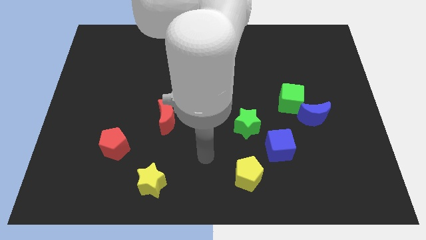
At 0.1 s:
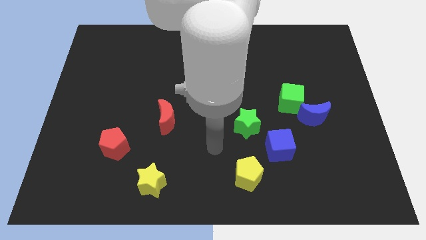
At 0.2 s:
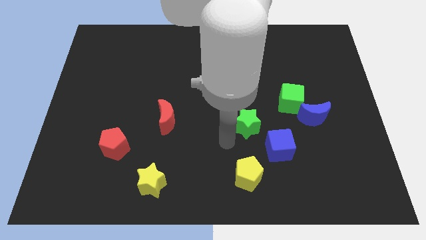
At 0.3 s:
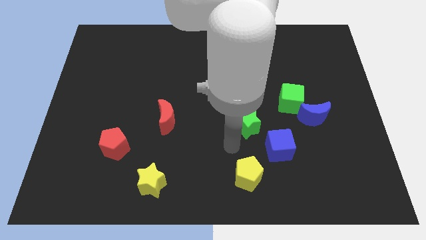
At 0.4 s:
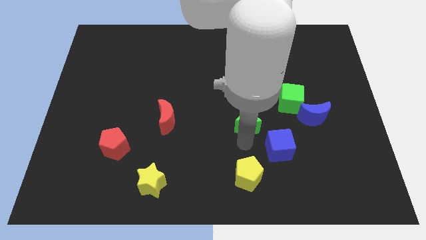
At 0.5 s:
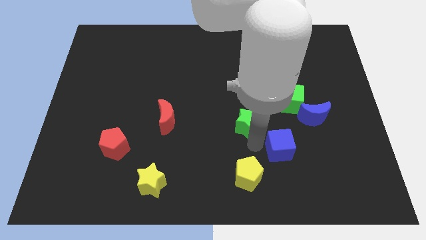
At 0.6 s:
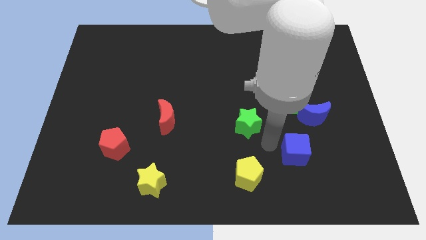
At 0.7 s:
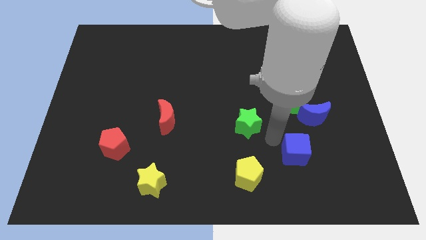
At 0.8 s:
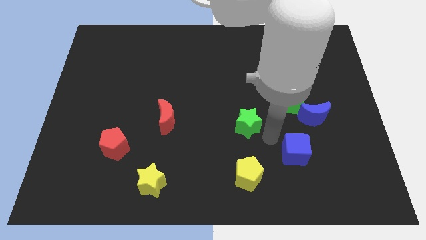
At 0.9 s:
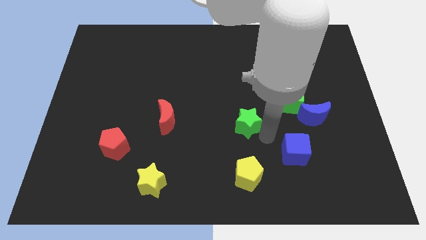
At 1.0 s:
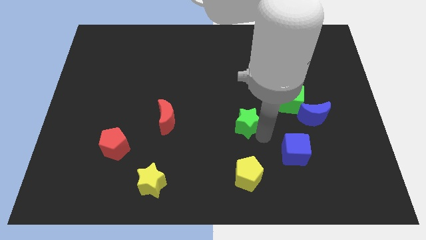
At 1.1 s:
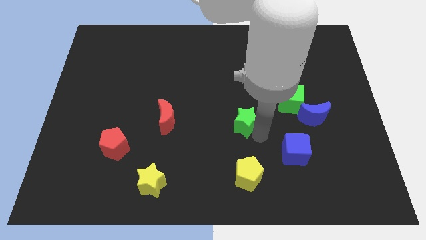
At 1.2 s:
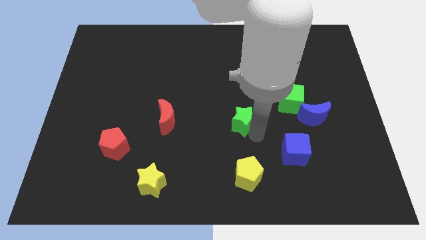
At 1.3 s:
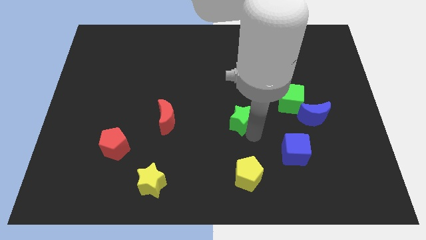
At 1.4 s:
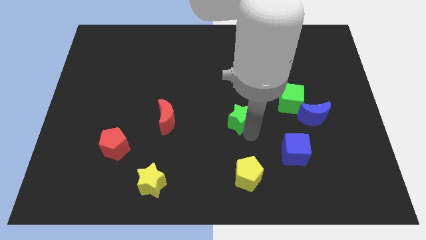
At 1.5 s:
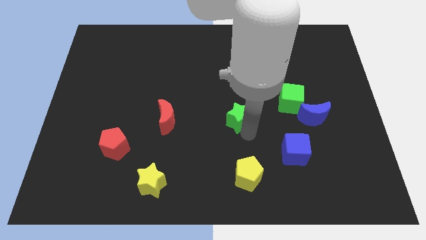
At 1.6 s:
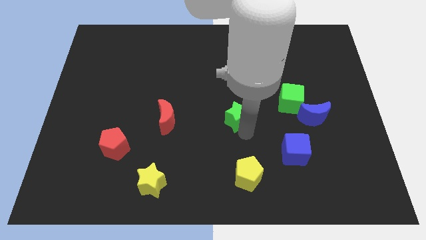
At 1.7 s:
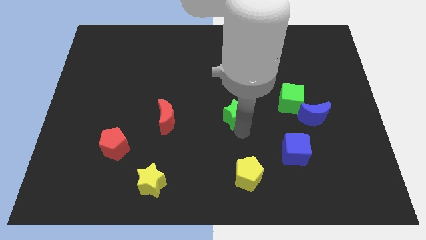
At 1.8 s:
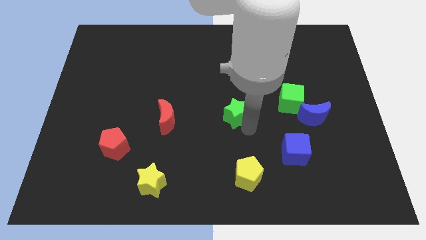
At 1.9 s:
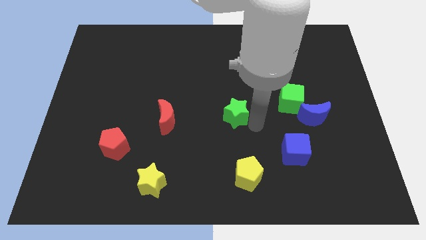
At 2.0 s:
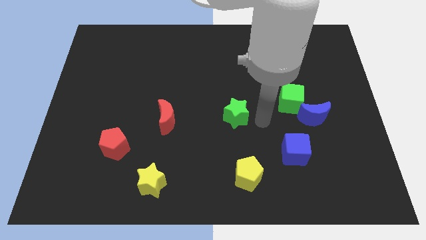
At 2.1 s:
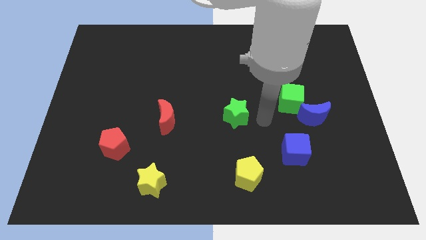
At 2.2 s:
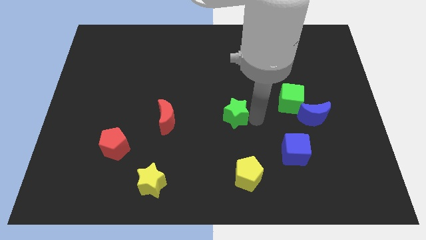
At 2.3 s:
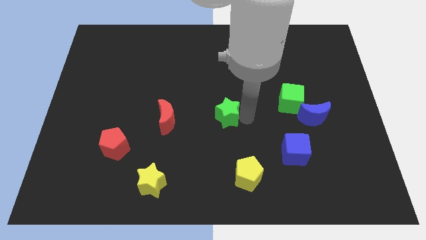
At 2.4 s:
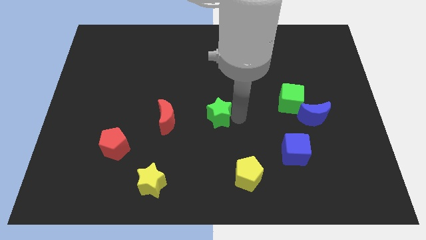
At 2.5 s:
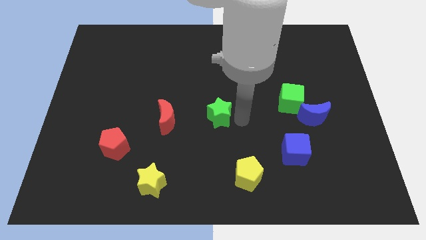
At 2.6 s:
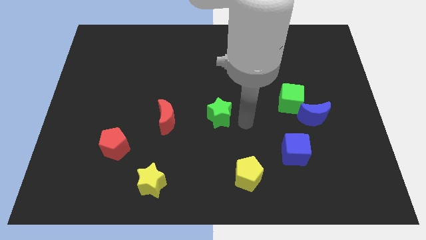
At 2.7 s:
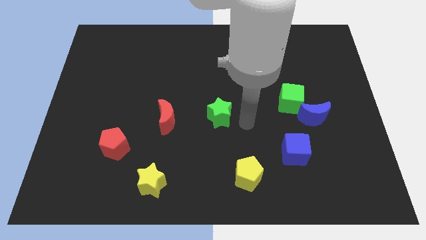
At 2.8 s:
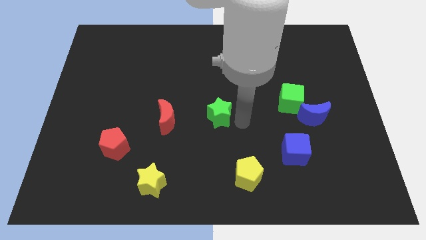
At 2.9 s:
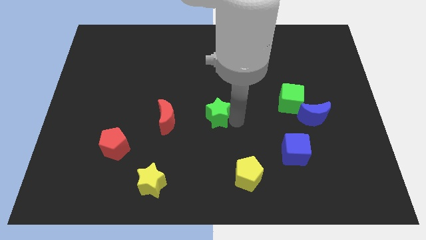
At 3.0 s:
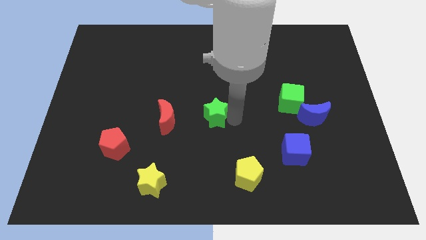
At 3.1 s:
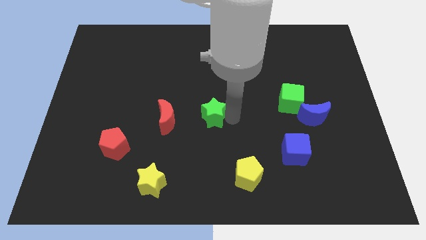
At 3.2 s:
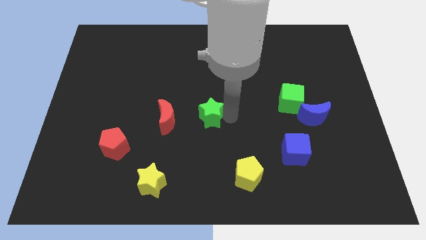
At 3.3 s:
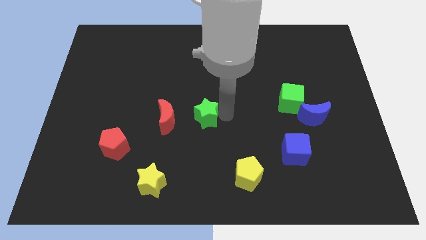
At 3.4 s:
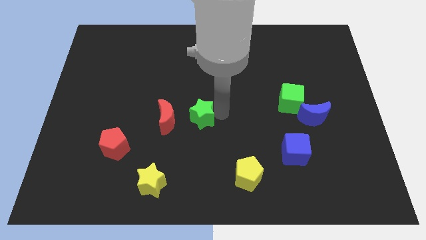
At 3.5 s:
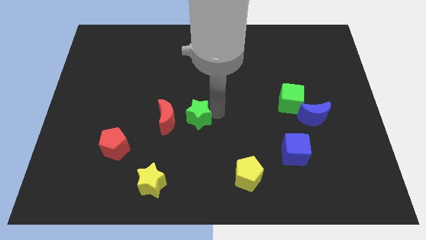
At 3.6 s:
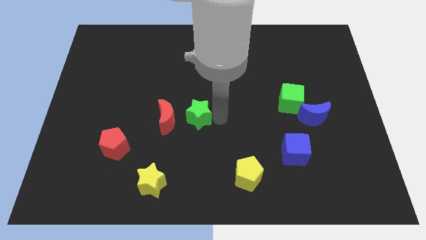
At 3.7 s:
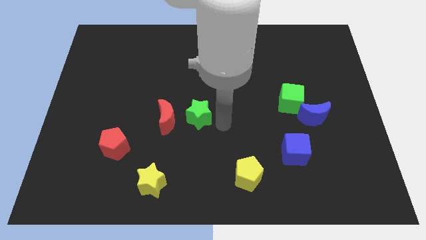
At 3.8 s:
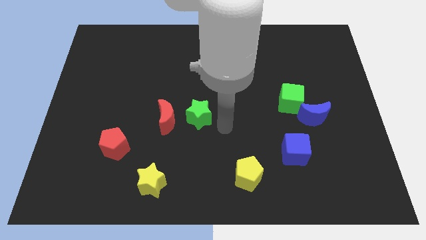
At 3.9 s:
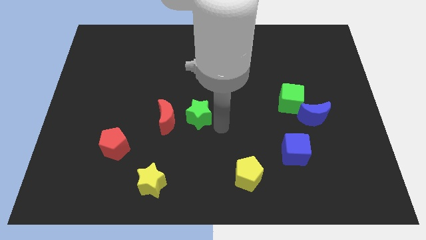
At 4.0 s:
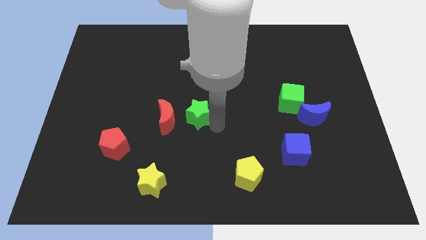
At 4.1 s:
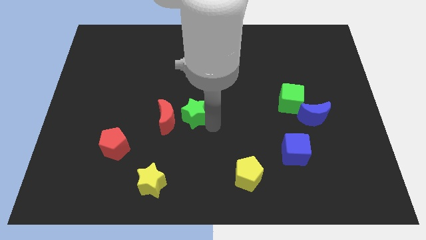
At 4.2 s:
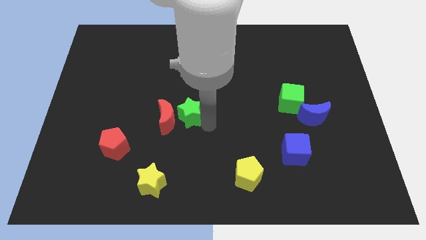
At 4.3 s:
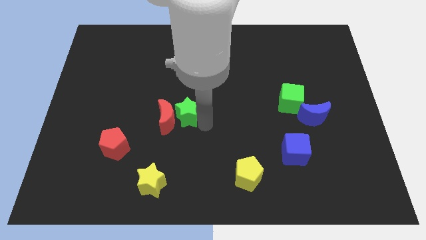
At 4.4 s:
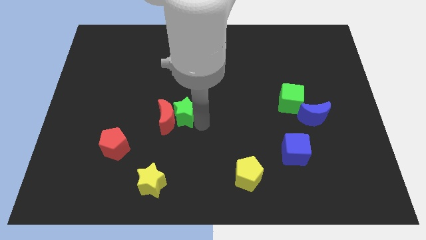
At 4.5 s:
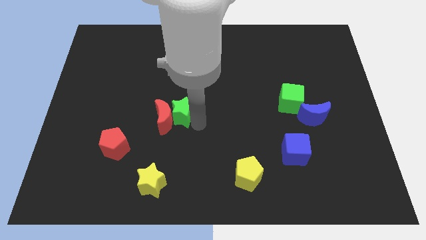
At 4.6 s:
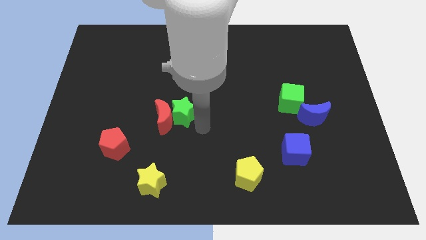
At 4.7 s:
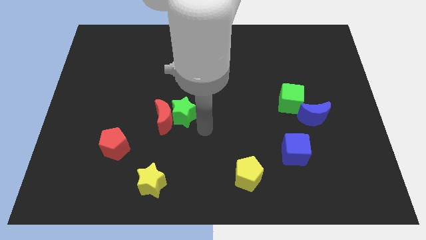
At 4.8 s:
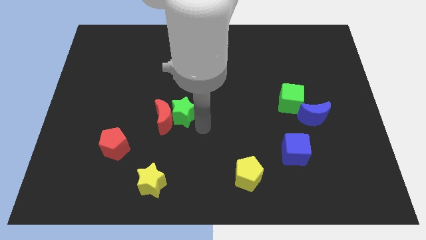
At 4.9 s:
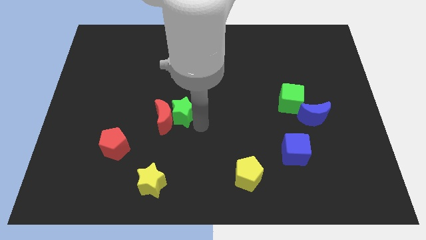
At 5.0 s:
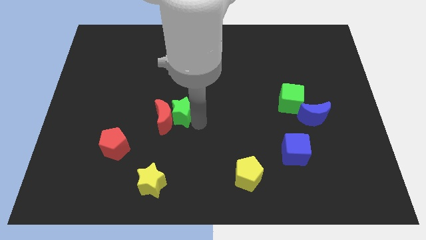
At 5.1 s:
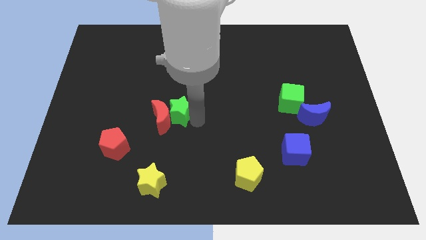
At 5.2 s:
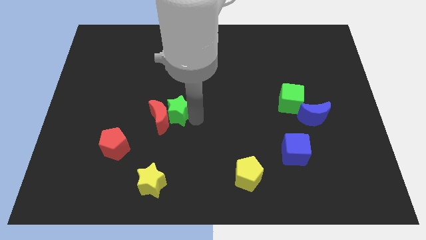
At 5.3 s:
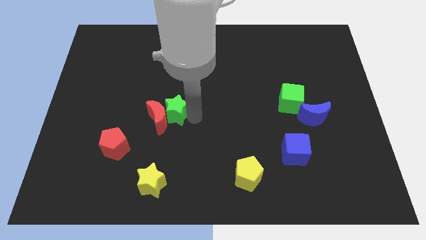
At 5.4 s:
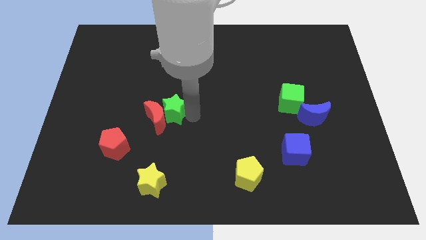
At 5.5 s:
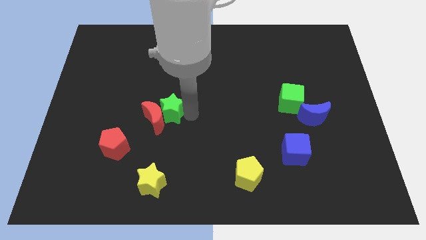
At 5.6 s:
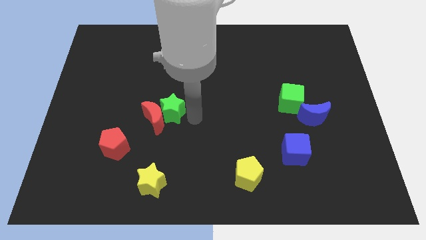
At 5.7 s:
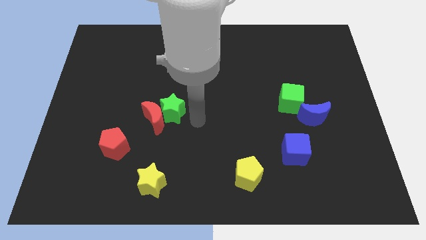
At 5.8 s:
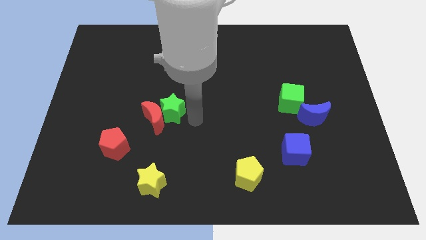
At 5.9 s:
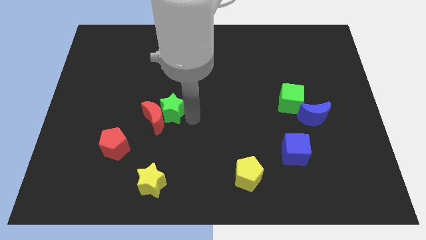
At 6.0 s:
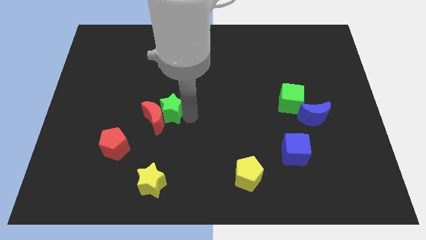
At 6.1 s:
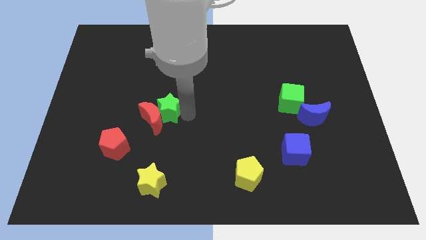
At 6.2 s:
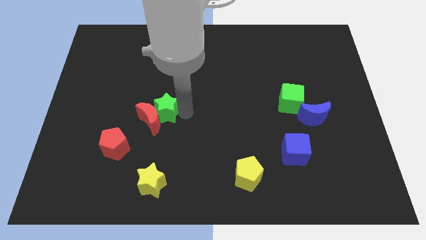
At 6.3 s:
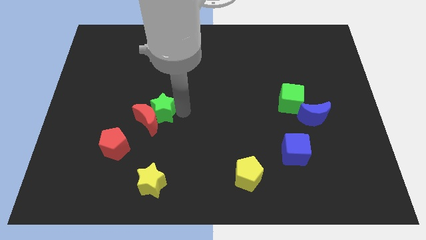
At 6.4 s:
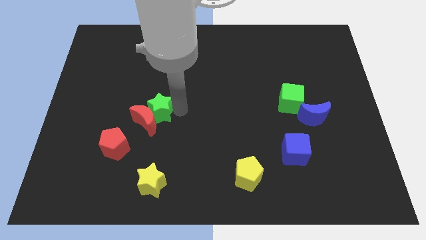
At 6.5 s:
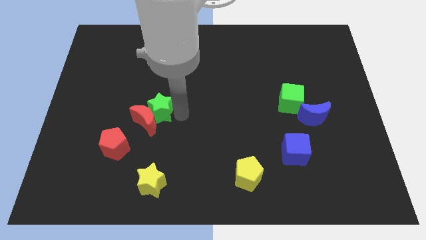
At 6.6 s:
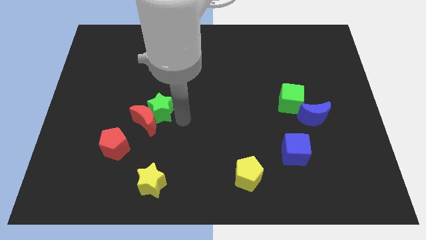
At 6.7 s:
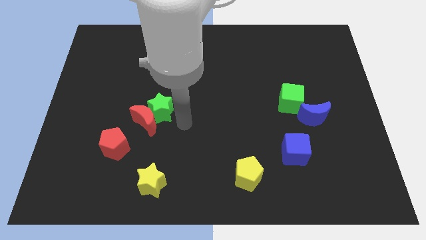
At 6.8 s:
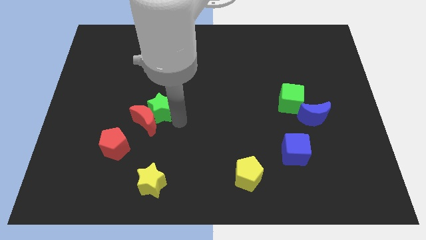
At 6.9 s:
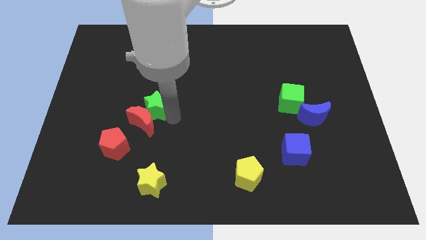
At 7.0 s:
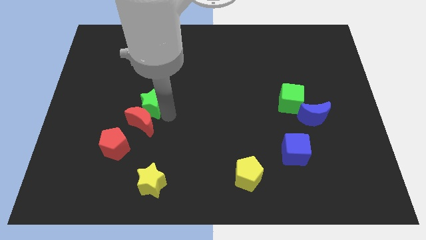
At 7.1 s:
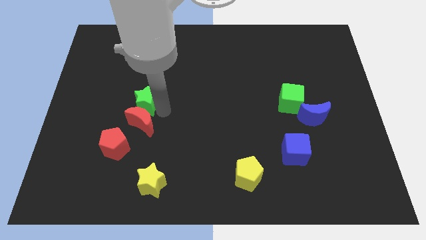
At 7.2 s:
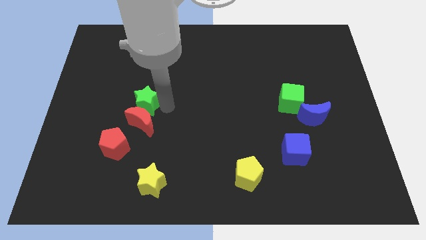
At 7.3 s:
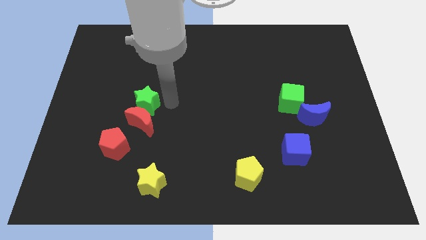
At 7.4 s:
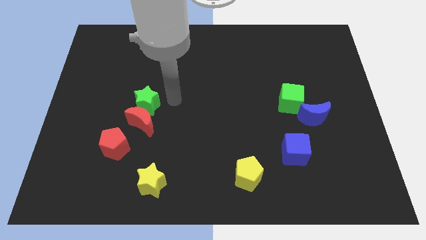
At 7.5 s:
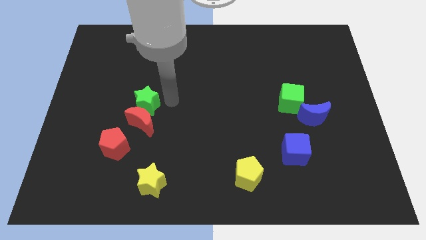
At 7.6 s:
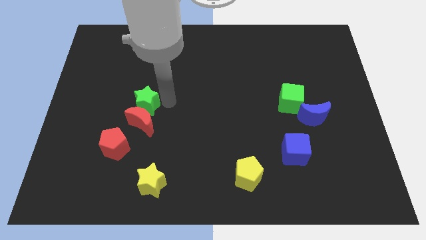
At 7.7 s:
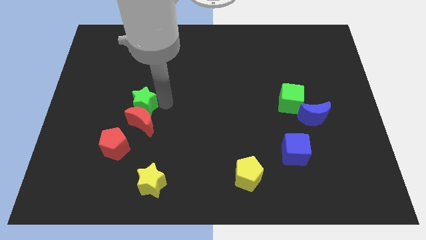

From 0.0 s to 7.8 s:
put the green star above the red pentagon
